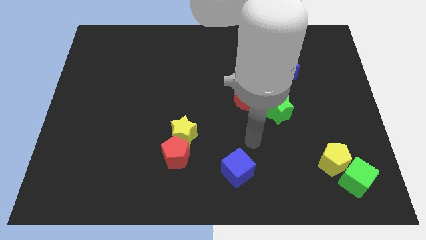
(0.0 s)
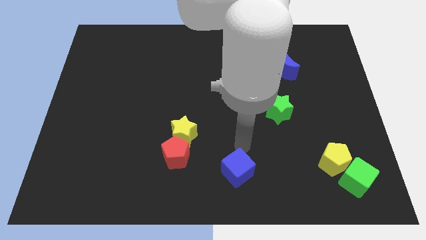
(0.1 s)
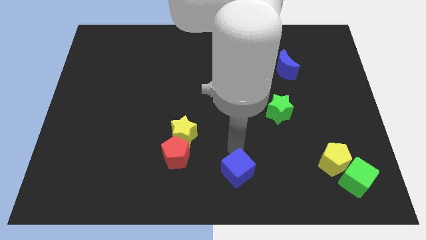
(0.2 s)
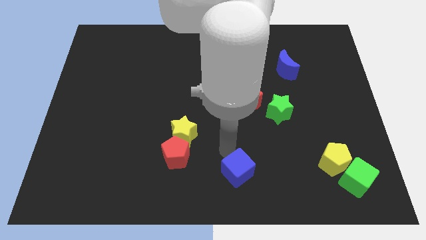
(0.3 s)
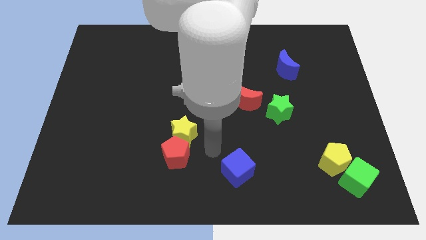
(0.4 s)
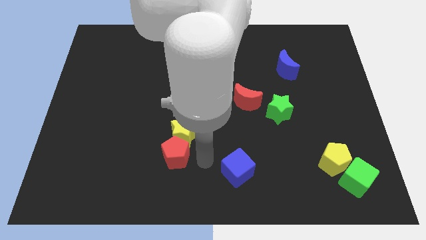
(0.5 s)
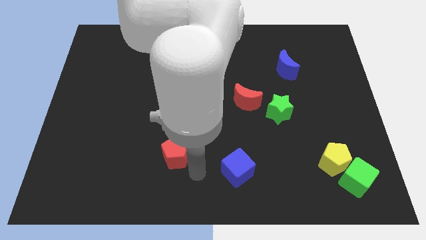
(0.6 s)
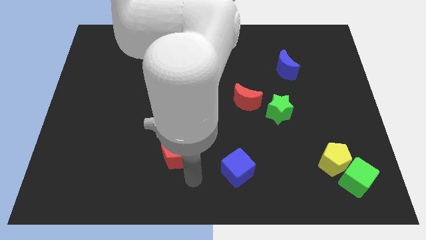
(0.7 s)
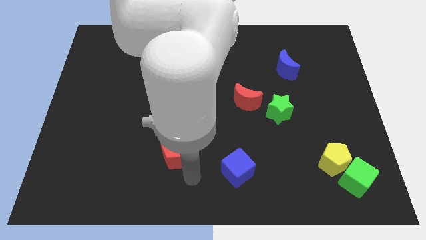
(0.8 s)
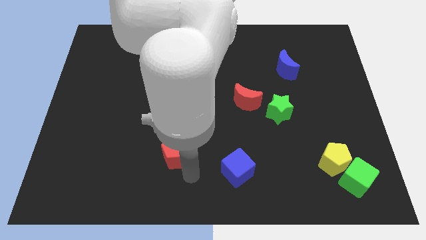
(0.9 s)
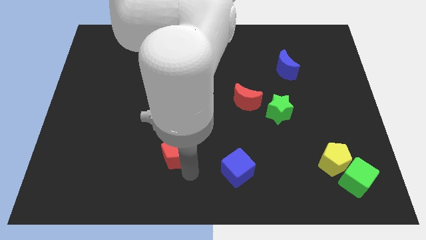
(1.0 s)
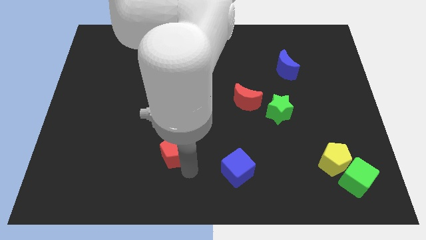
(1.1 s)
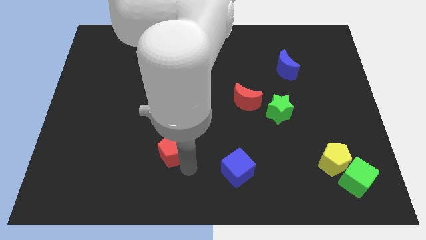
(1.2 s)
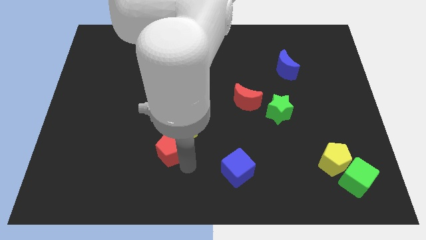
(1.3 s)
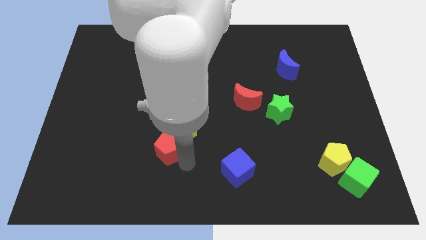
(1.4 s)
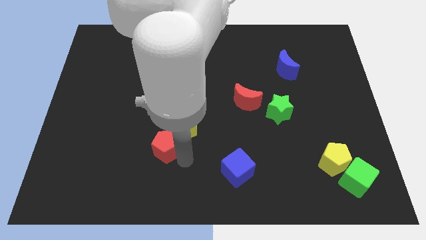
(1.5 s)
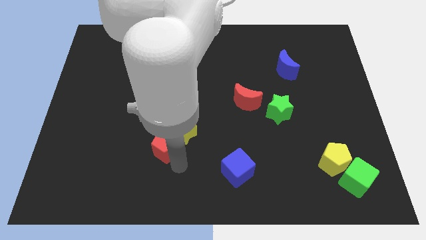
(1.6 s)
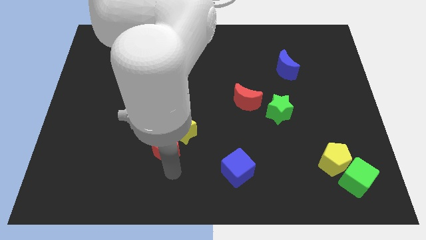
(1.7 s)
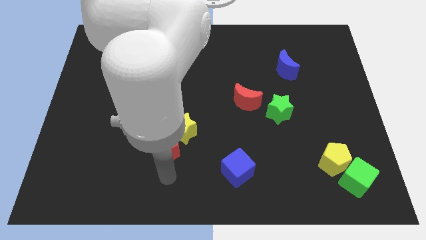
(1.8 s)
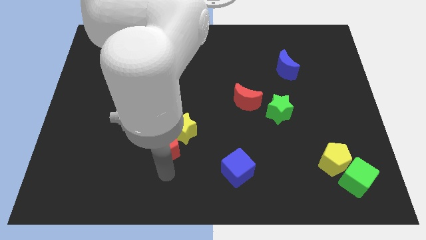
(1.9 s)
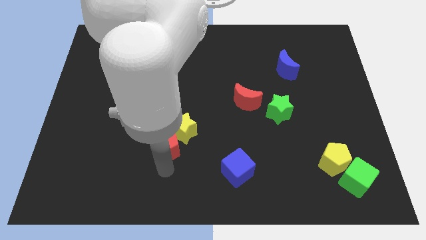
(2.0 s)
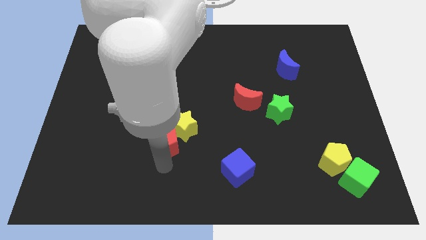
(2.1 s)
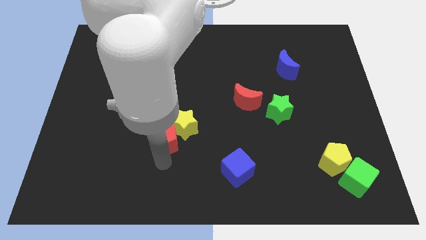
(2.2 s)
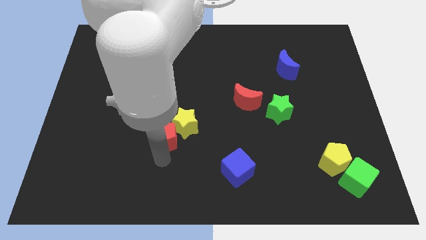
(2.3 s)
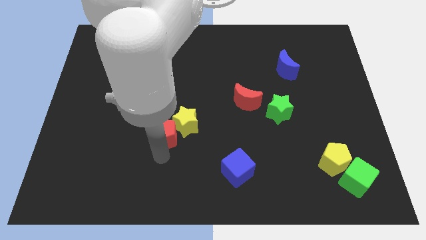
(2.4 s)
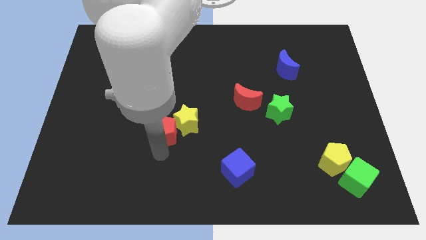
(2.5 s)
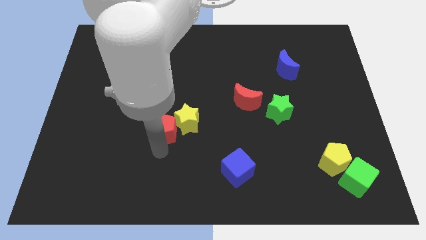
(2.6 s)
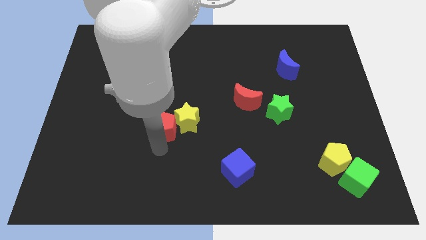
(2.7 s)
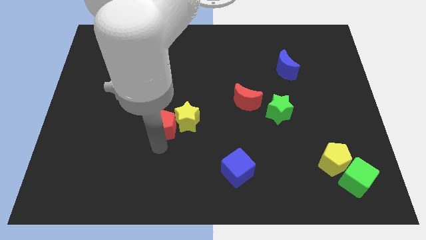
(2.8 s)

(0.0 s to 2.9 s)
slightly push the red pentagon up

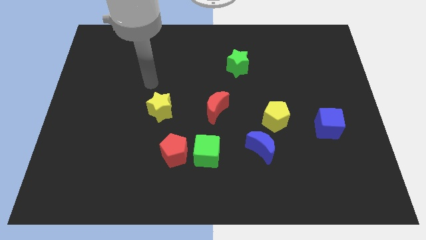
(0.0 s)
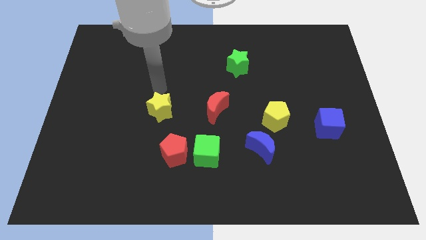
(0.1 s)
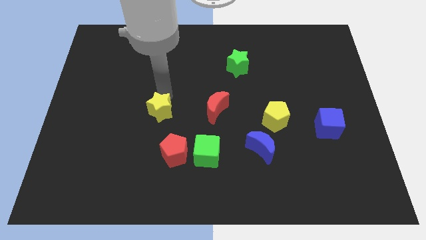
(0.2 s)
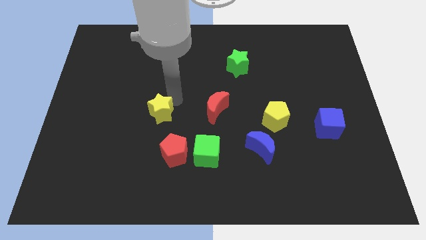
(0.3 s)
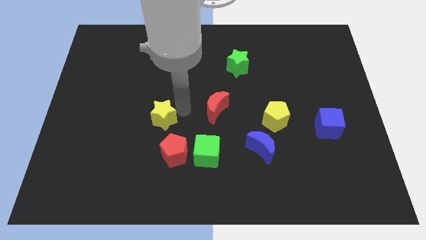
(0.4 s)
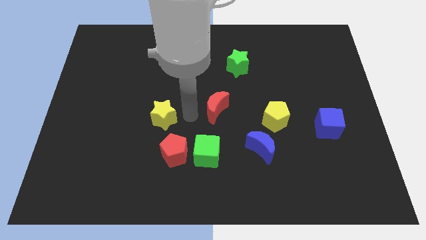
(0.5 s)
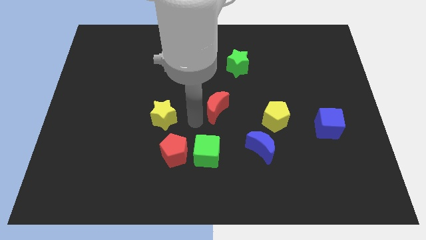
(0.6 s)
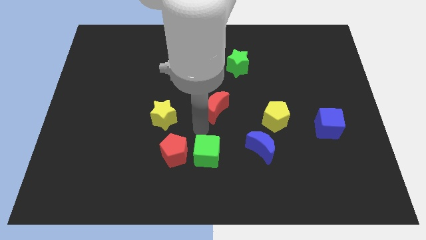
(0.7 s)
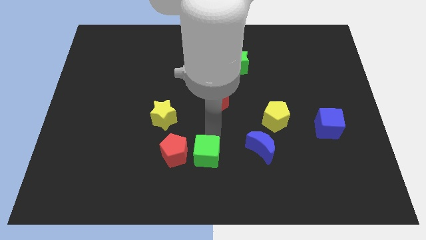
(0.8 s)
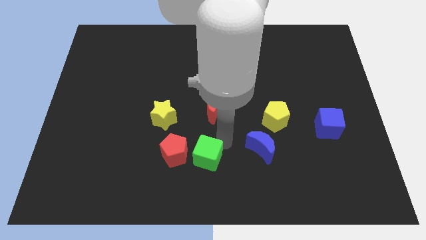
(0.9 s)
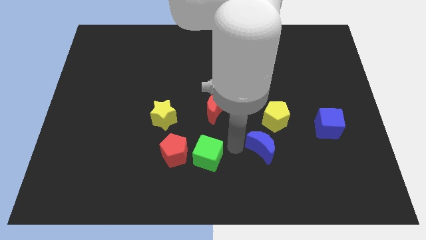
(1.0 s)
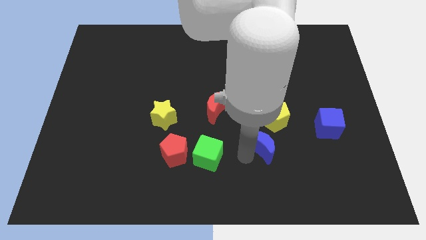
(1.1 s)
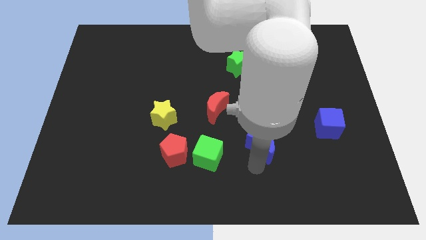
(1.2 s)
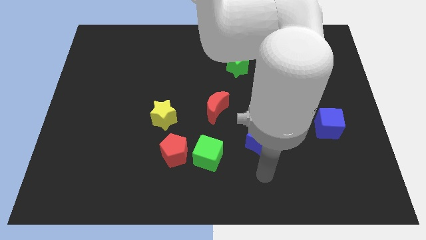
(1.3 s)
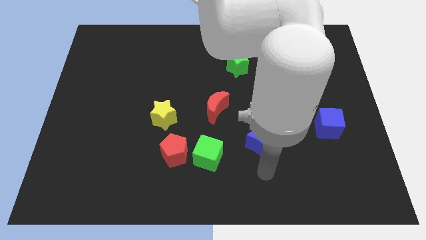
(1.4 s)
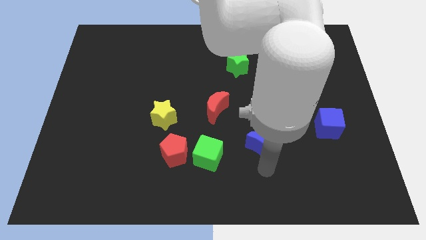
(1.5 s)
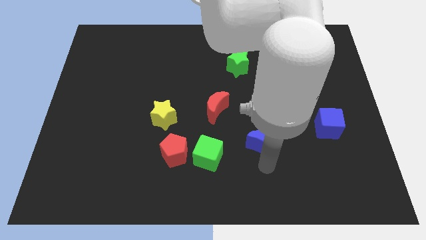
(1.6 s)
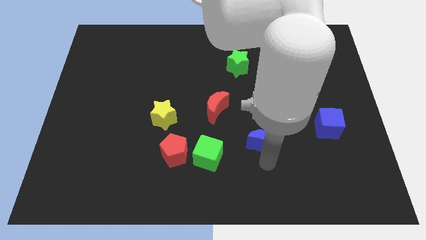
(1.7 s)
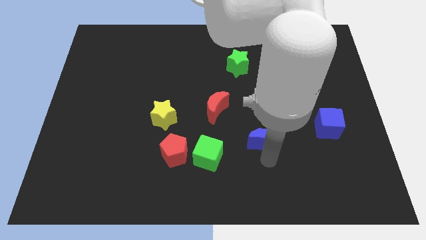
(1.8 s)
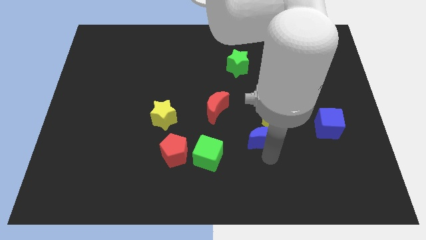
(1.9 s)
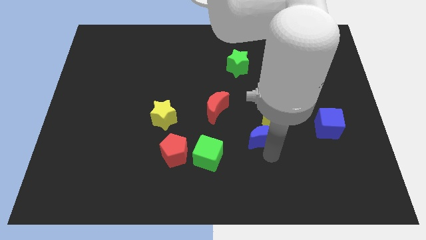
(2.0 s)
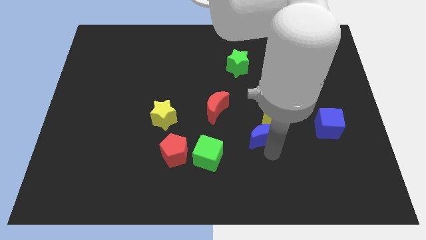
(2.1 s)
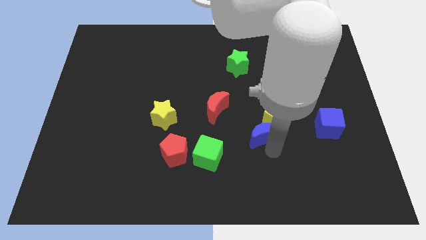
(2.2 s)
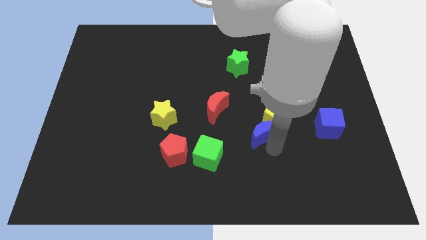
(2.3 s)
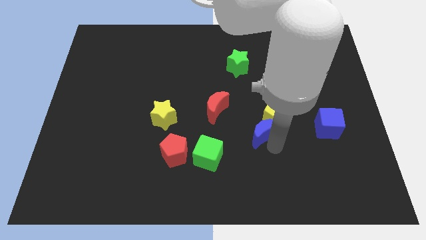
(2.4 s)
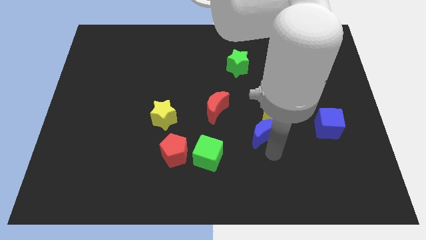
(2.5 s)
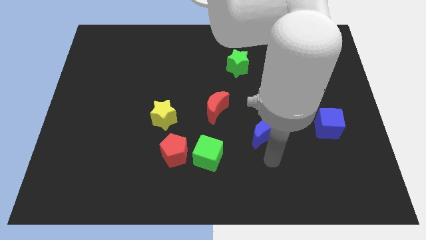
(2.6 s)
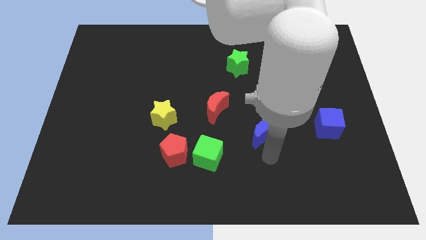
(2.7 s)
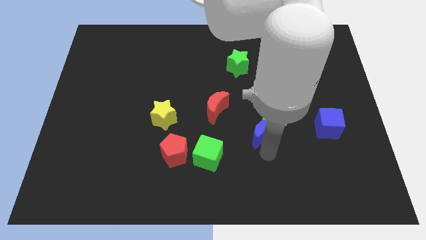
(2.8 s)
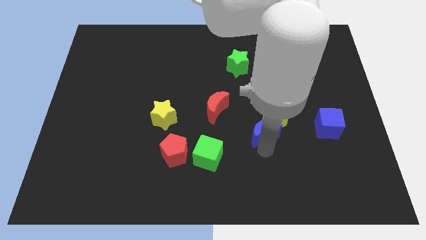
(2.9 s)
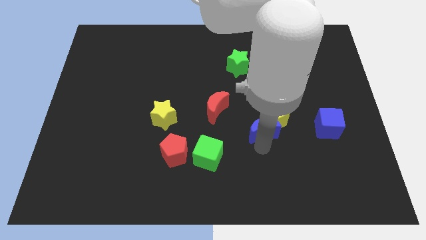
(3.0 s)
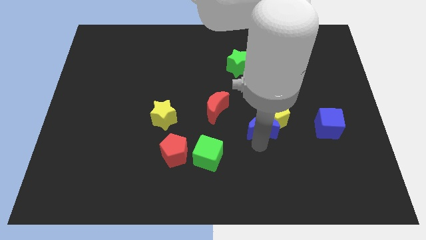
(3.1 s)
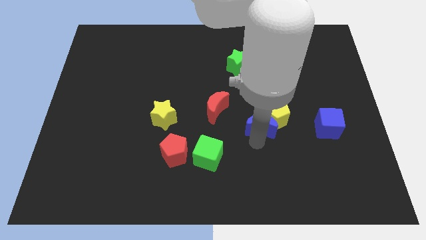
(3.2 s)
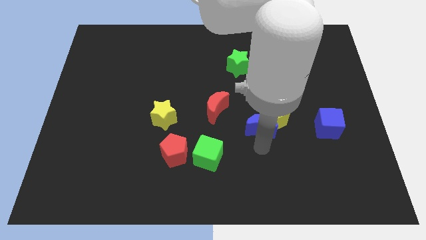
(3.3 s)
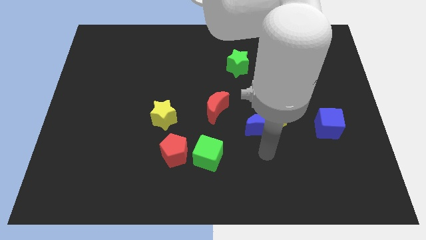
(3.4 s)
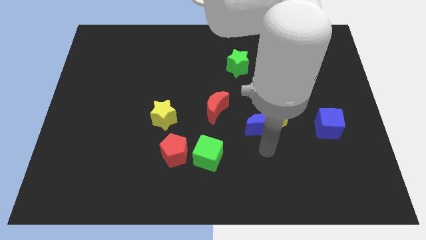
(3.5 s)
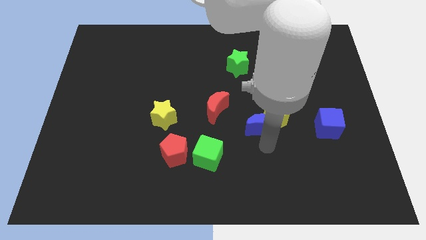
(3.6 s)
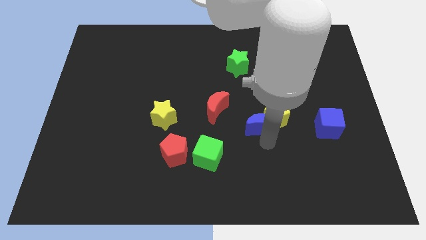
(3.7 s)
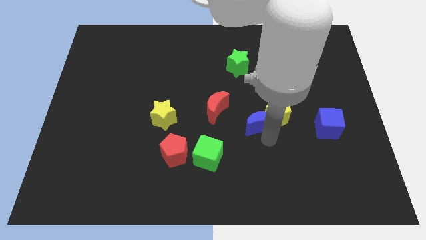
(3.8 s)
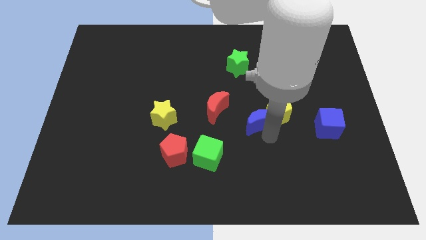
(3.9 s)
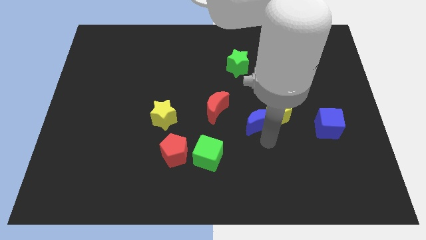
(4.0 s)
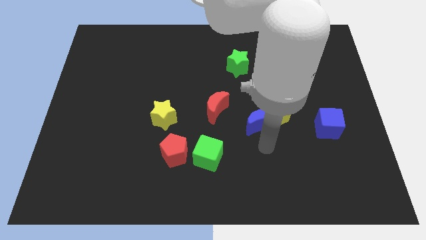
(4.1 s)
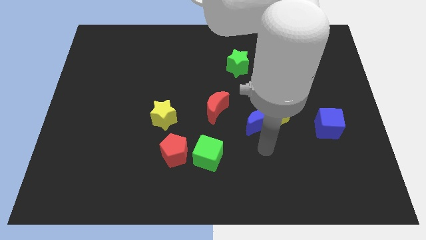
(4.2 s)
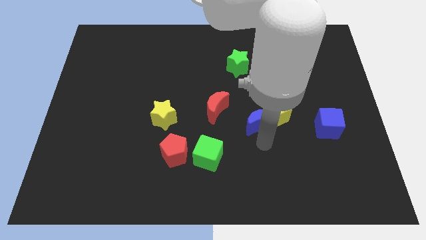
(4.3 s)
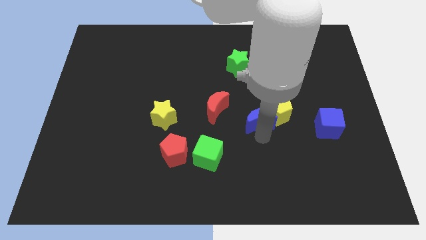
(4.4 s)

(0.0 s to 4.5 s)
slightly push the blue moon upwards

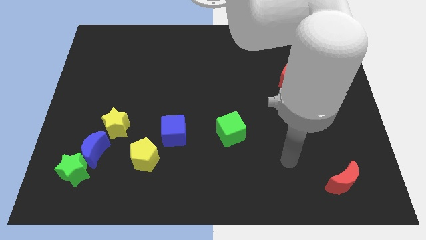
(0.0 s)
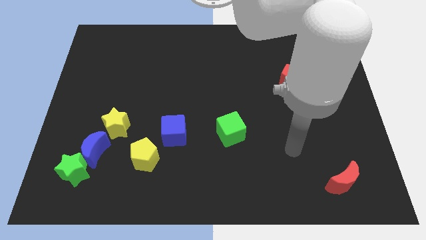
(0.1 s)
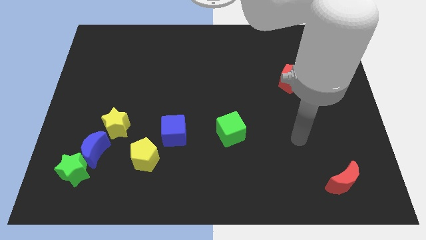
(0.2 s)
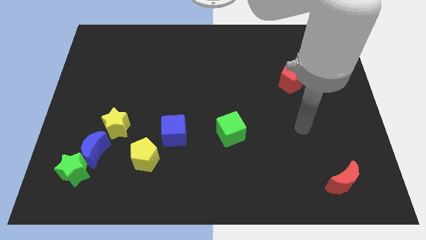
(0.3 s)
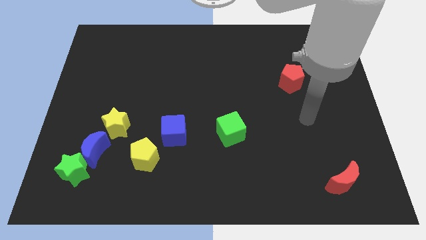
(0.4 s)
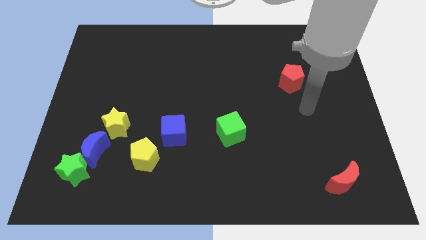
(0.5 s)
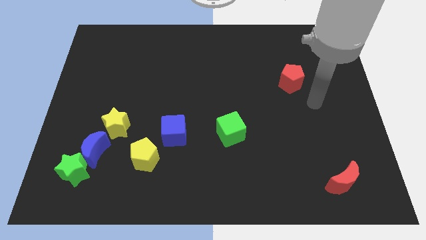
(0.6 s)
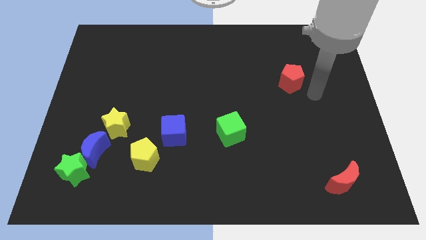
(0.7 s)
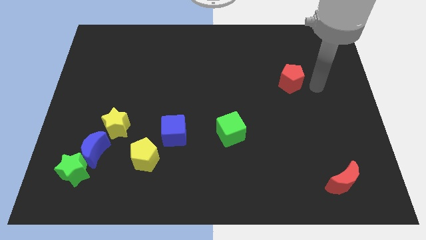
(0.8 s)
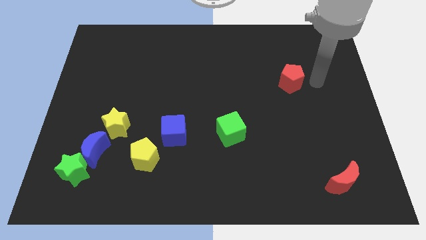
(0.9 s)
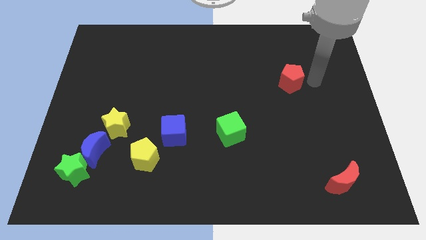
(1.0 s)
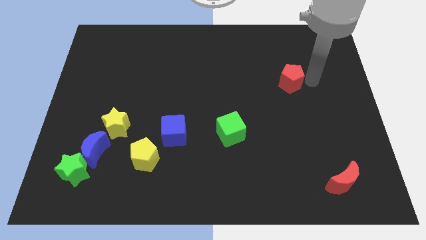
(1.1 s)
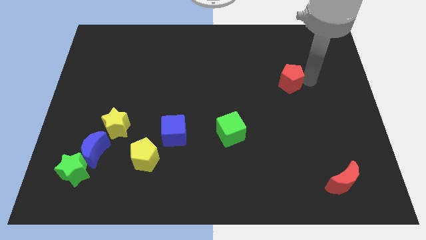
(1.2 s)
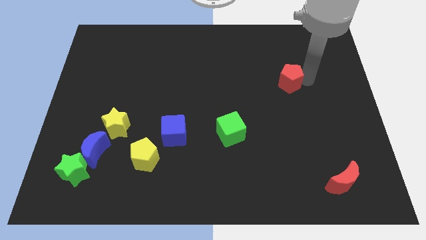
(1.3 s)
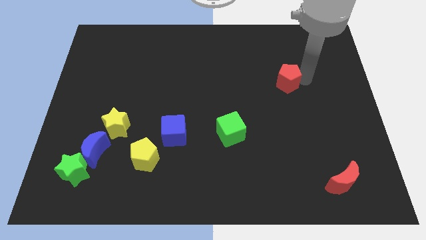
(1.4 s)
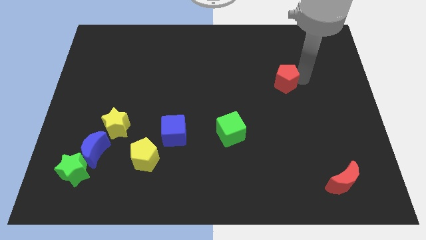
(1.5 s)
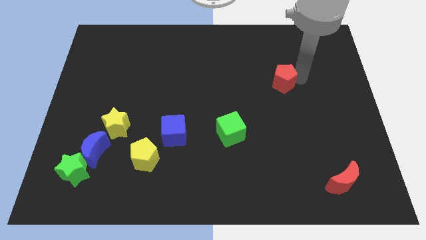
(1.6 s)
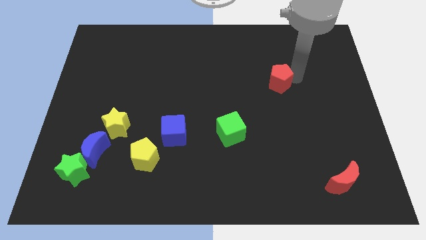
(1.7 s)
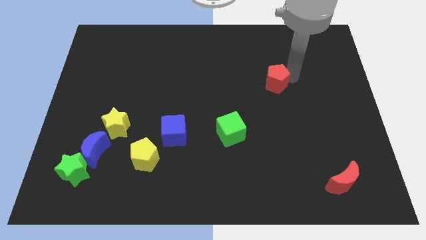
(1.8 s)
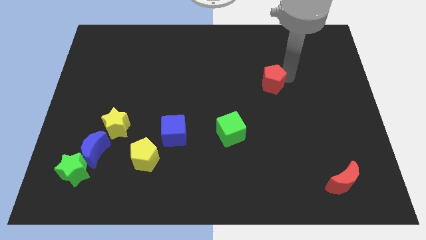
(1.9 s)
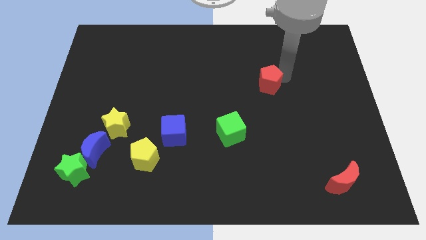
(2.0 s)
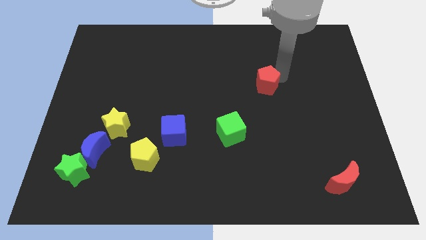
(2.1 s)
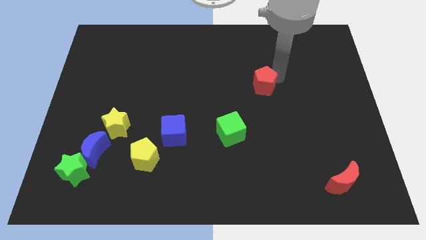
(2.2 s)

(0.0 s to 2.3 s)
slightly move the red pentagon left
